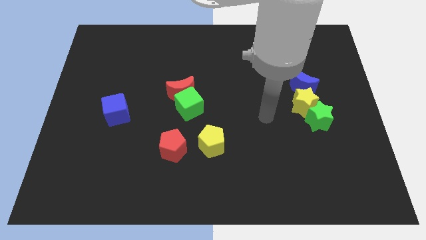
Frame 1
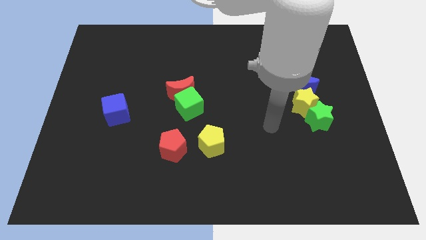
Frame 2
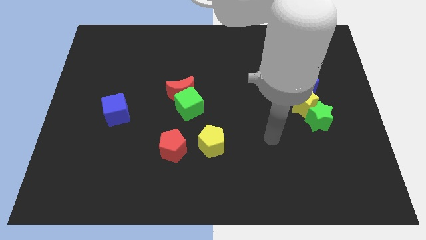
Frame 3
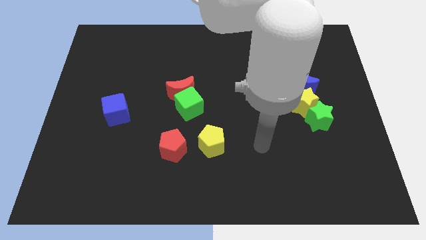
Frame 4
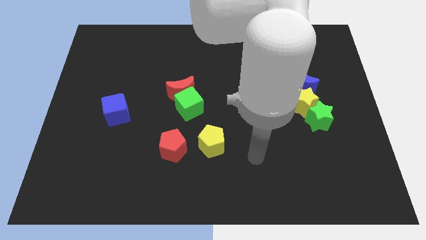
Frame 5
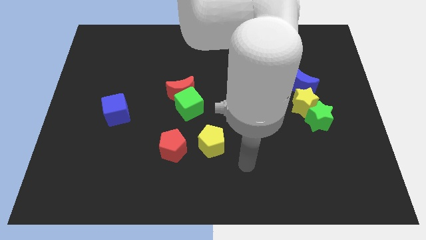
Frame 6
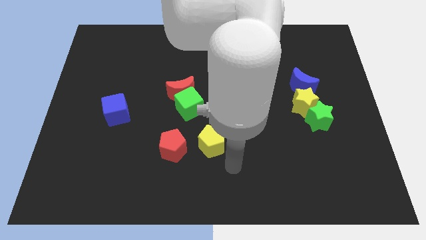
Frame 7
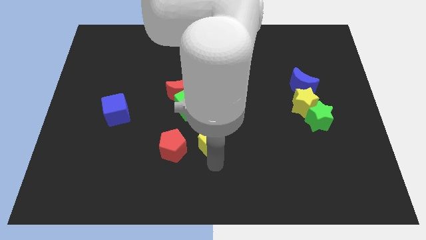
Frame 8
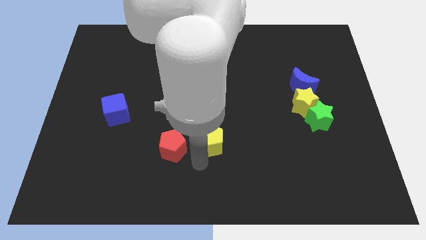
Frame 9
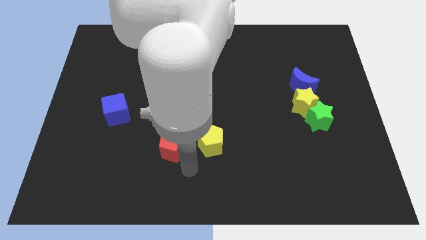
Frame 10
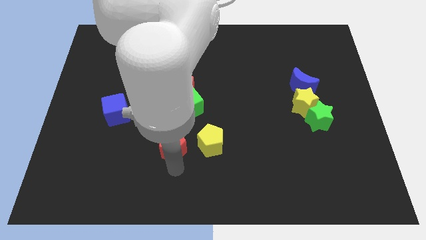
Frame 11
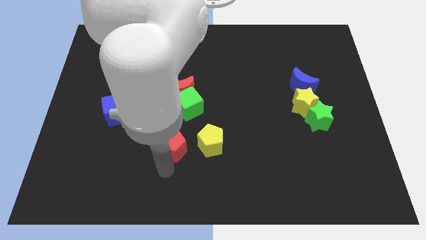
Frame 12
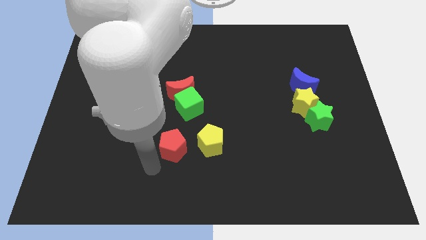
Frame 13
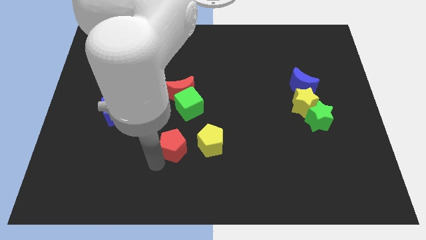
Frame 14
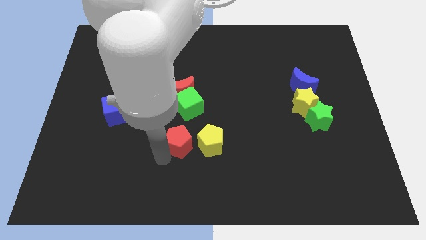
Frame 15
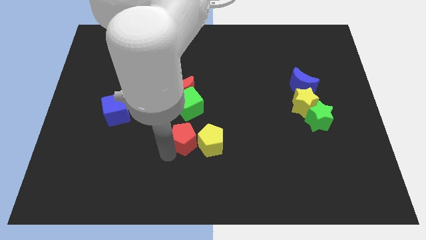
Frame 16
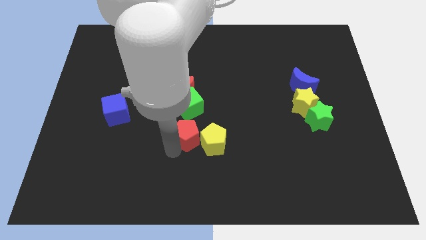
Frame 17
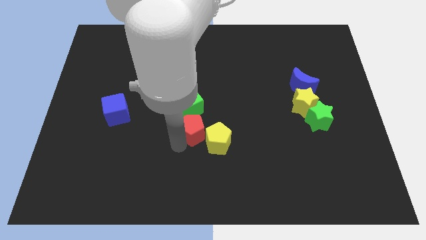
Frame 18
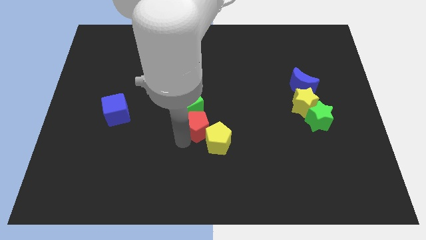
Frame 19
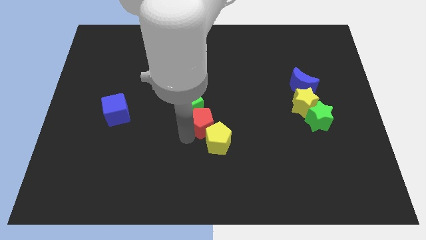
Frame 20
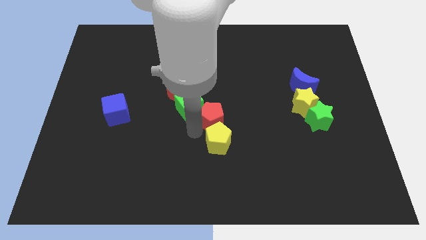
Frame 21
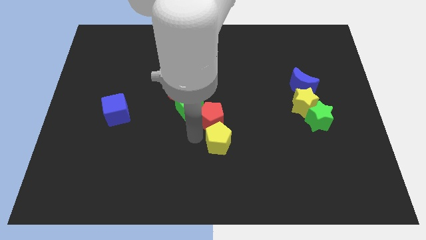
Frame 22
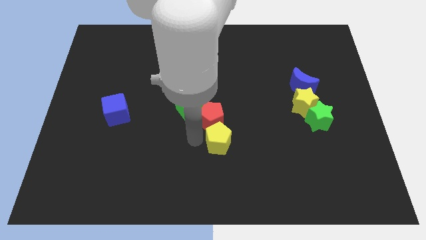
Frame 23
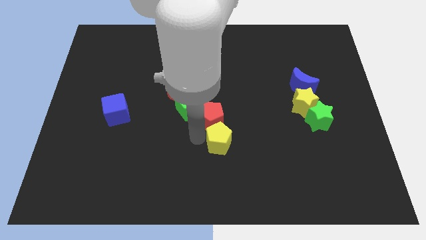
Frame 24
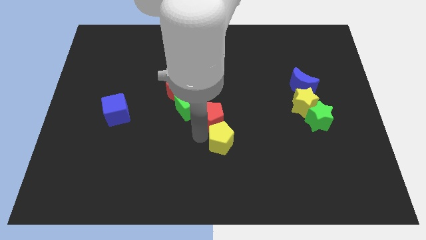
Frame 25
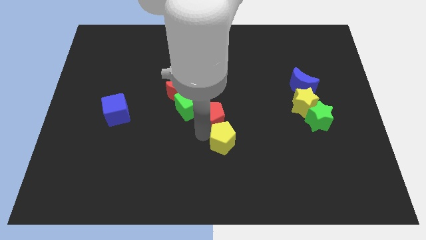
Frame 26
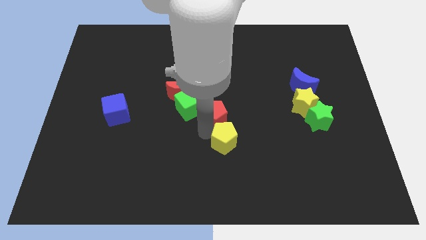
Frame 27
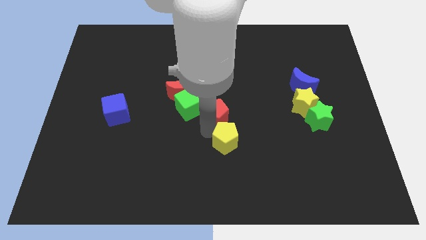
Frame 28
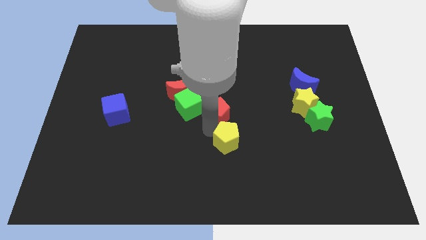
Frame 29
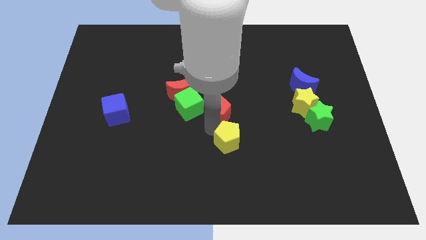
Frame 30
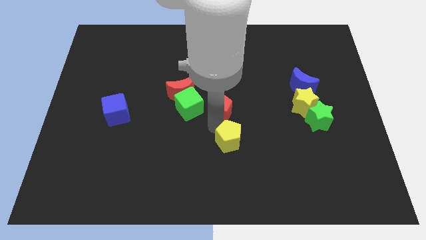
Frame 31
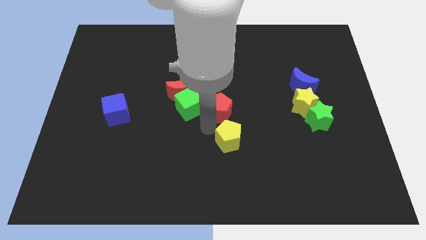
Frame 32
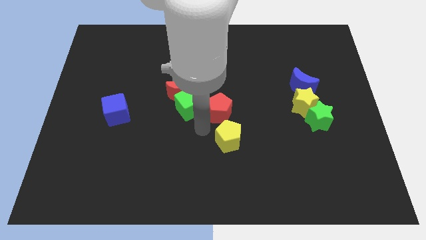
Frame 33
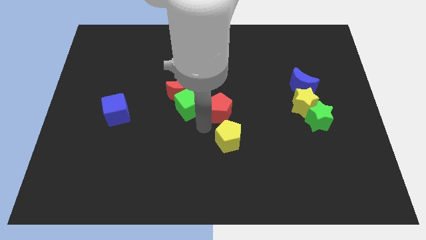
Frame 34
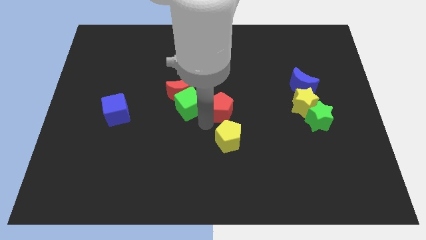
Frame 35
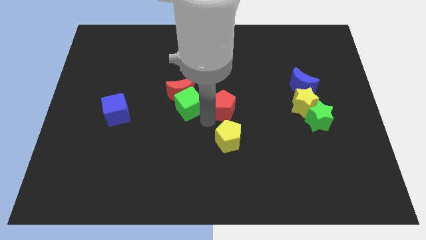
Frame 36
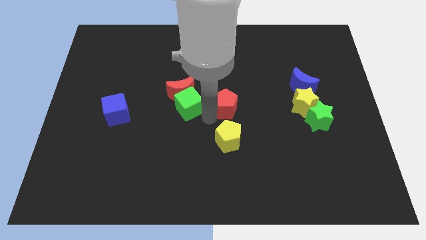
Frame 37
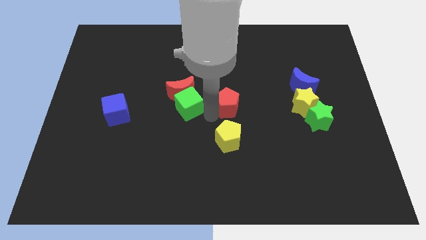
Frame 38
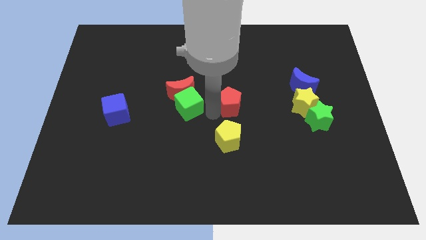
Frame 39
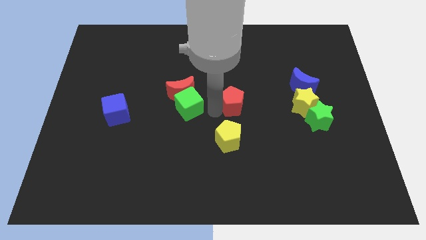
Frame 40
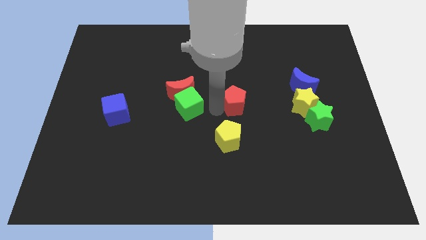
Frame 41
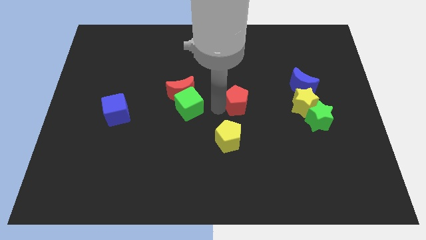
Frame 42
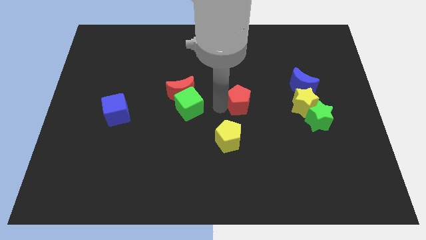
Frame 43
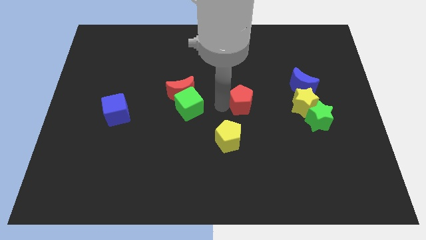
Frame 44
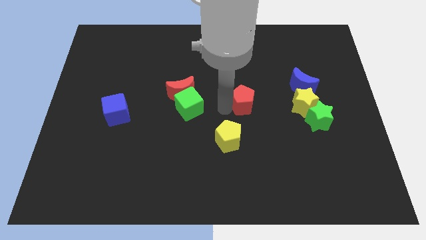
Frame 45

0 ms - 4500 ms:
push the red pentagon up and to the right diagonally

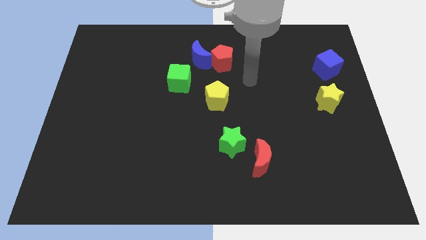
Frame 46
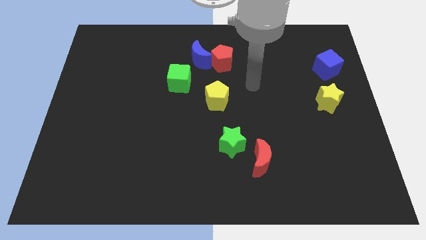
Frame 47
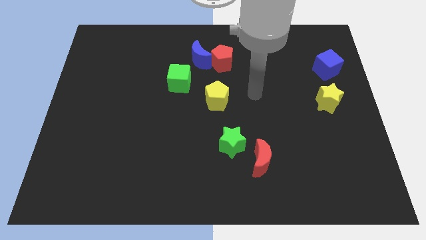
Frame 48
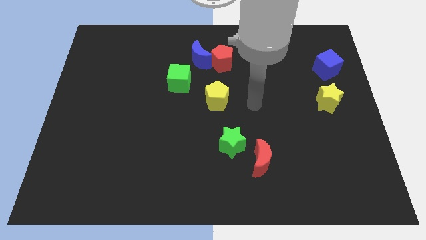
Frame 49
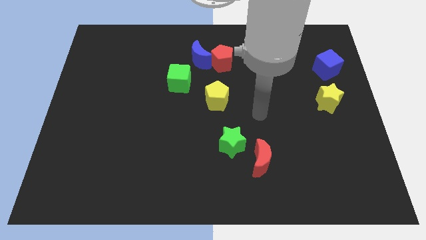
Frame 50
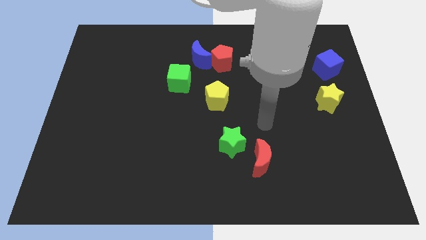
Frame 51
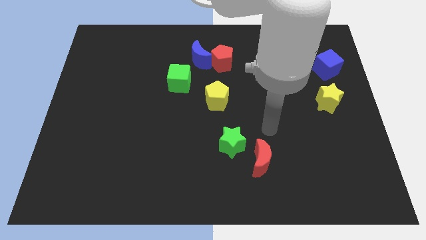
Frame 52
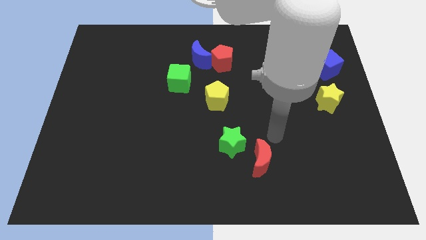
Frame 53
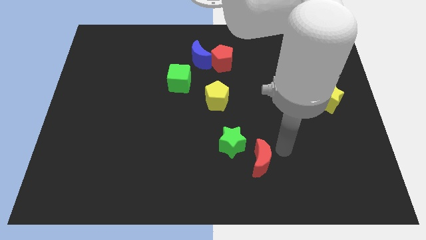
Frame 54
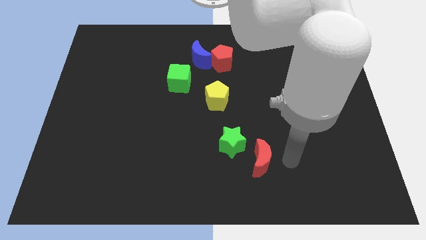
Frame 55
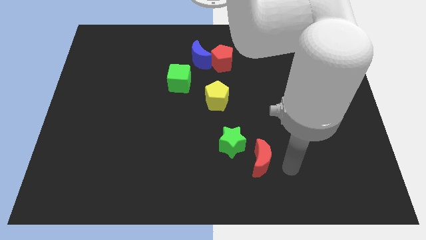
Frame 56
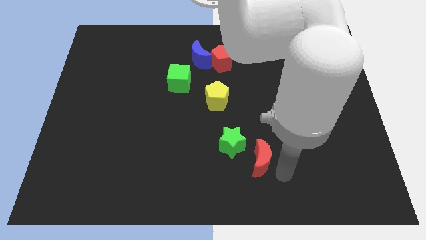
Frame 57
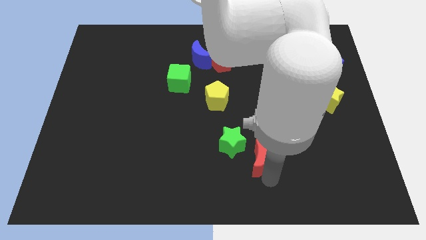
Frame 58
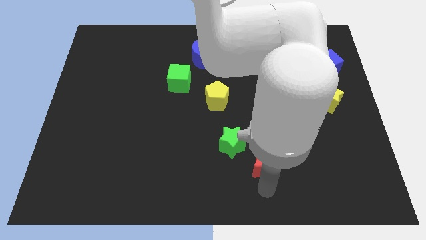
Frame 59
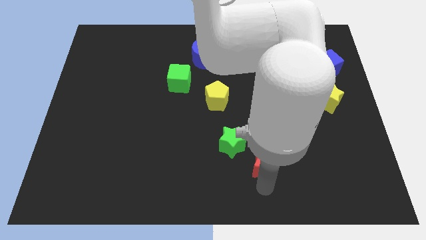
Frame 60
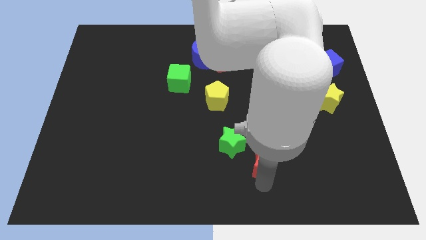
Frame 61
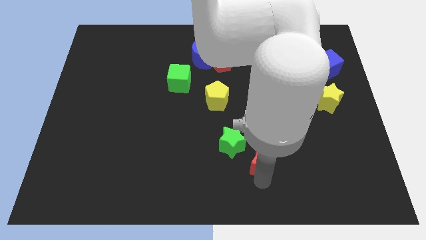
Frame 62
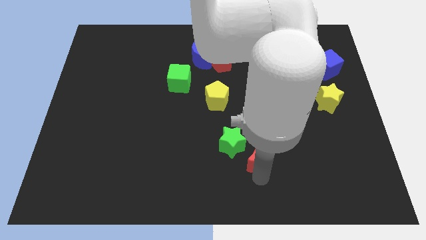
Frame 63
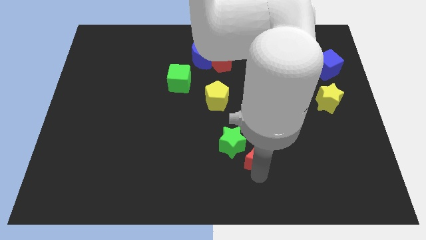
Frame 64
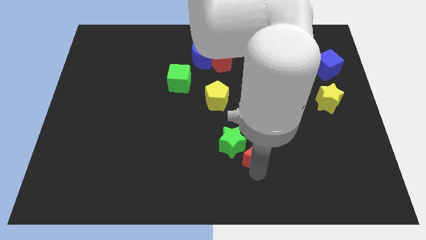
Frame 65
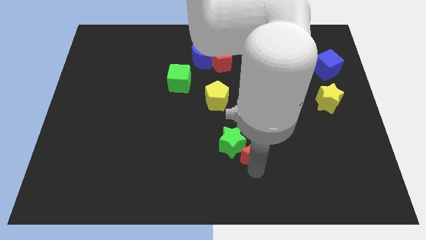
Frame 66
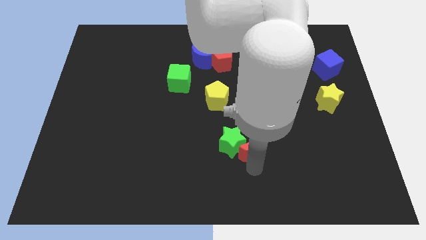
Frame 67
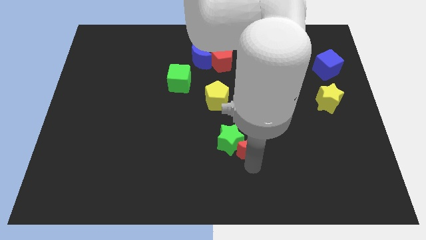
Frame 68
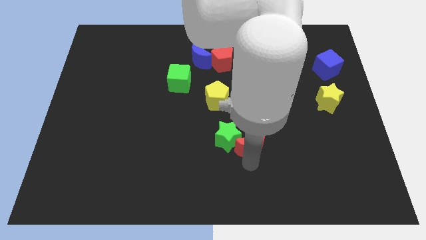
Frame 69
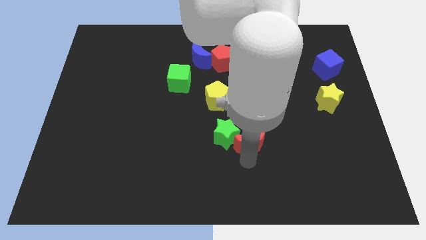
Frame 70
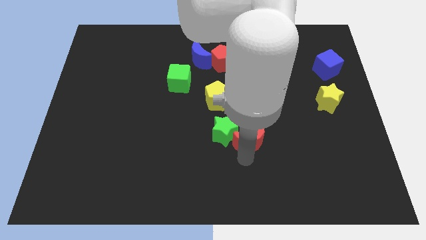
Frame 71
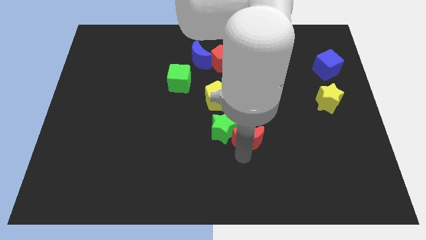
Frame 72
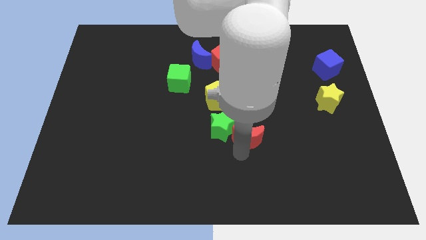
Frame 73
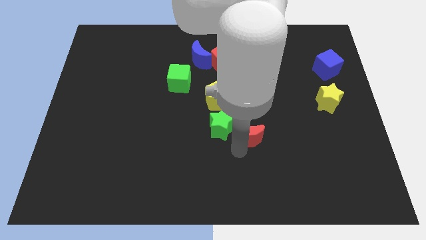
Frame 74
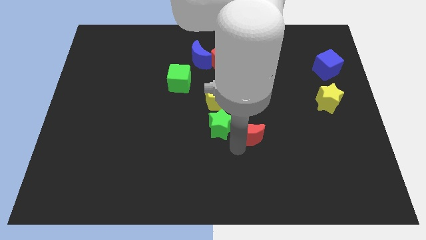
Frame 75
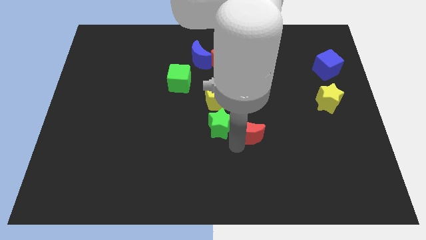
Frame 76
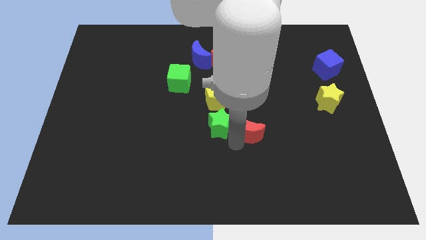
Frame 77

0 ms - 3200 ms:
move the red moon slightly up

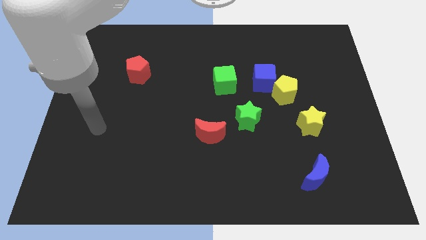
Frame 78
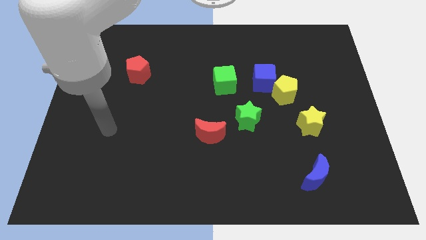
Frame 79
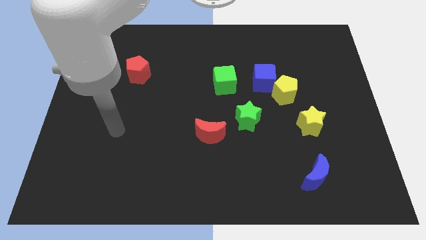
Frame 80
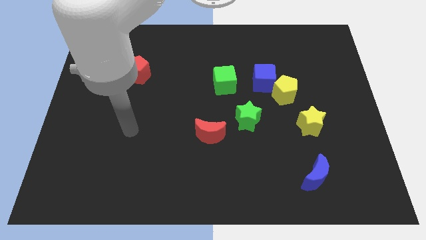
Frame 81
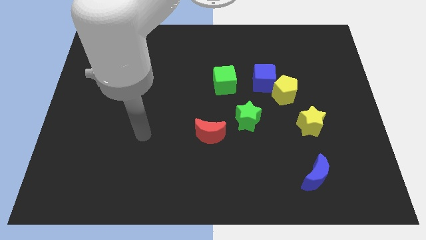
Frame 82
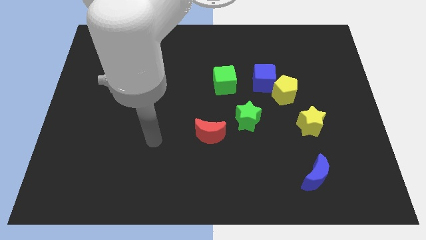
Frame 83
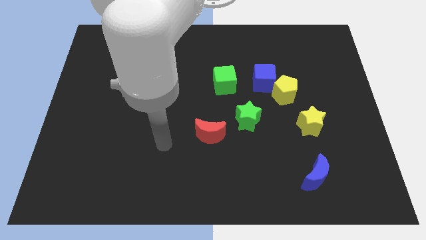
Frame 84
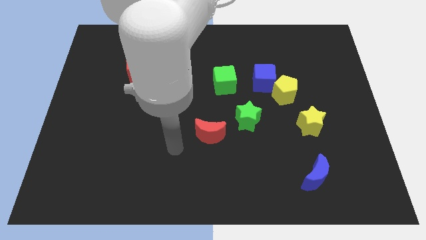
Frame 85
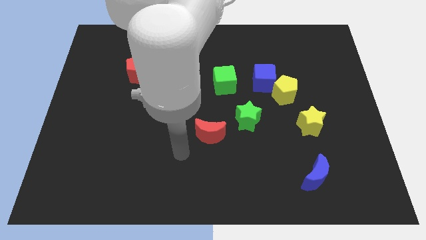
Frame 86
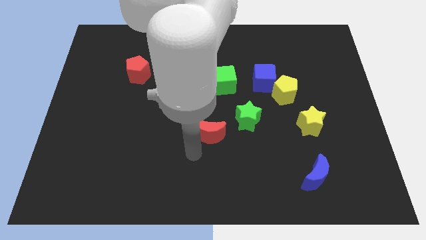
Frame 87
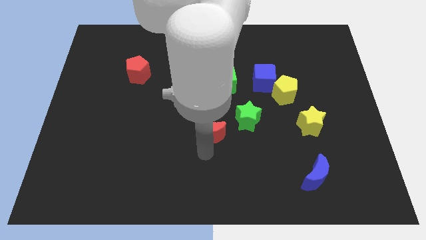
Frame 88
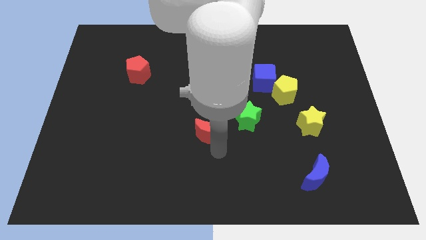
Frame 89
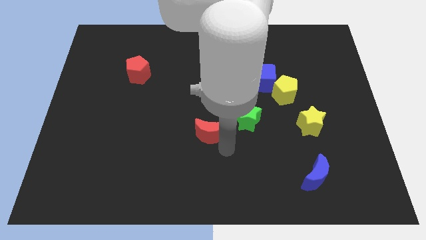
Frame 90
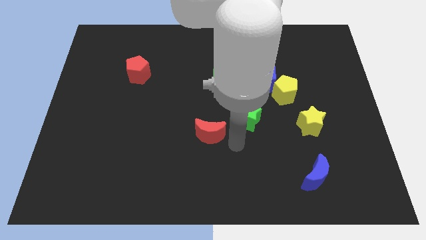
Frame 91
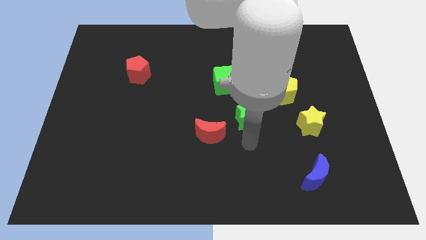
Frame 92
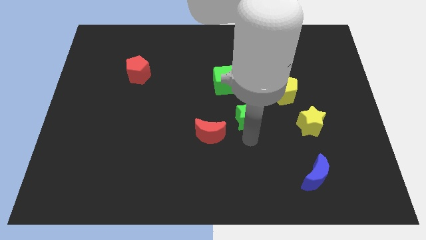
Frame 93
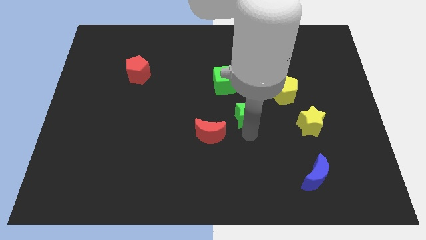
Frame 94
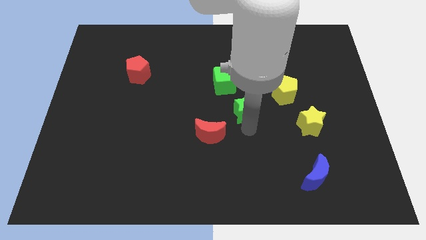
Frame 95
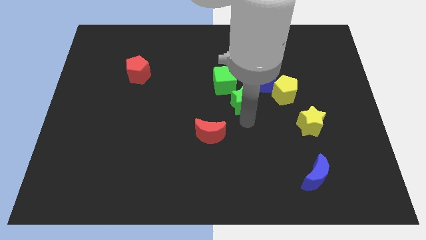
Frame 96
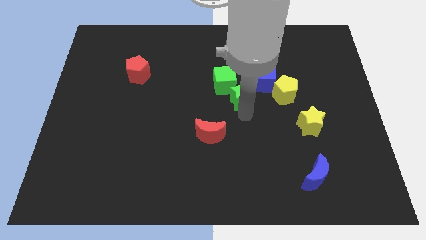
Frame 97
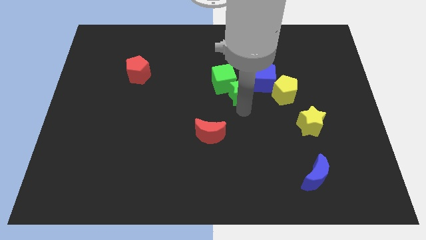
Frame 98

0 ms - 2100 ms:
slightly slide the green star up
